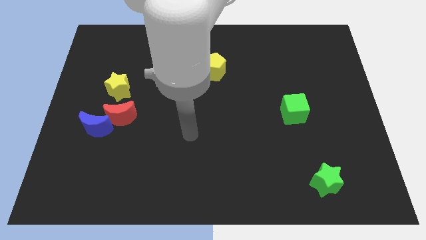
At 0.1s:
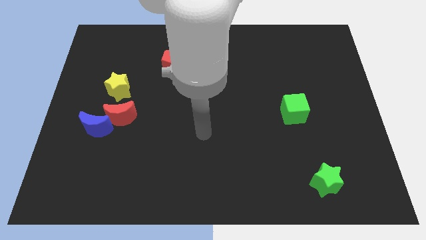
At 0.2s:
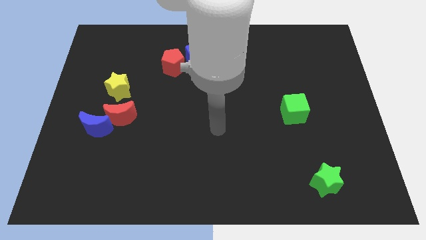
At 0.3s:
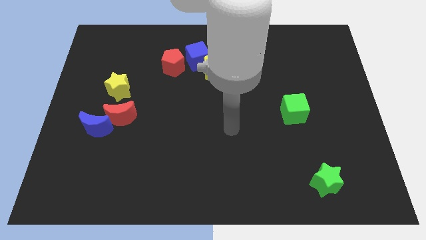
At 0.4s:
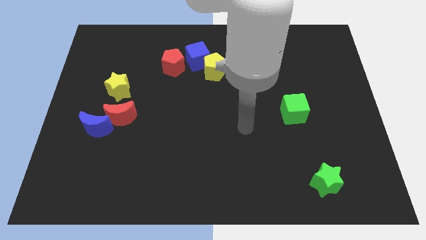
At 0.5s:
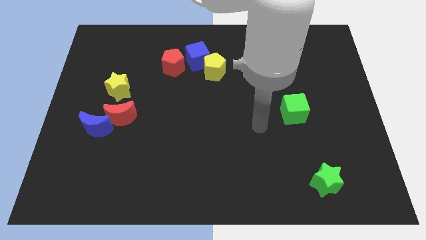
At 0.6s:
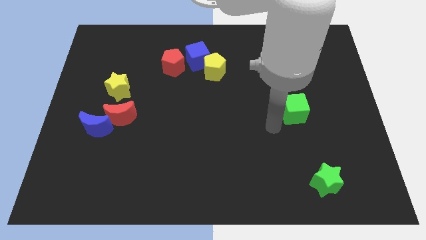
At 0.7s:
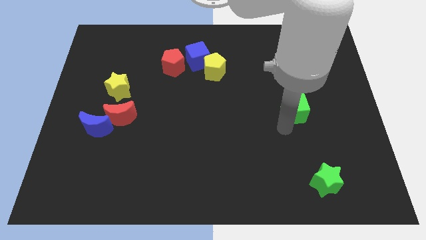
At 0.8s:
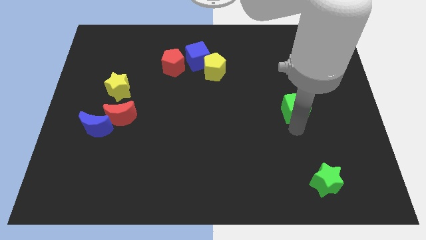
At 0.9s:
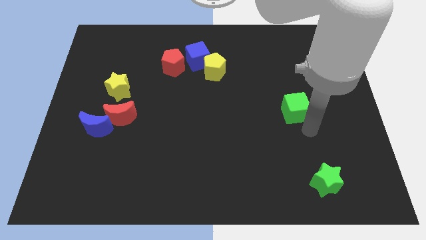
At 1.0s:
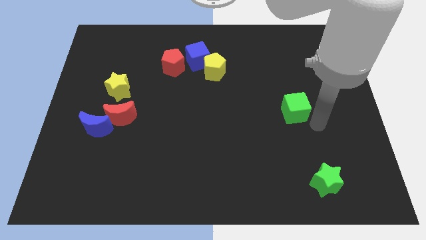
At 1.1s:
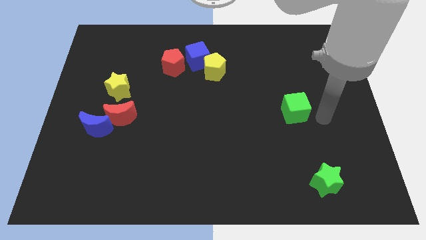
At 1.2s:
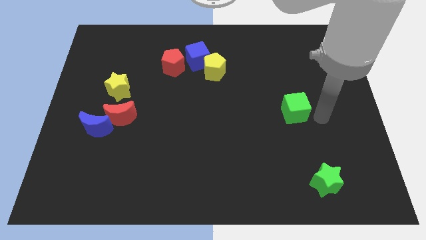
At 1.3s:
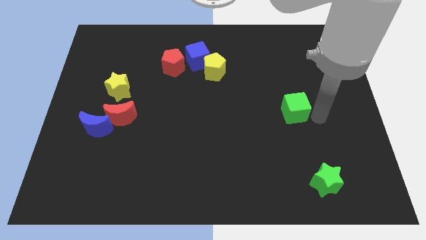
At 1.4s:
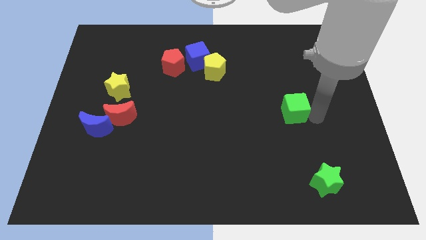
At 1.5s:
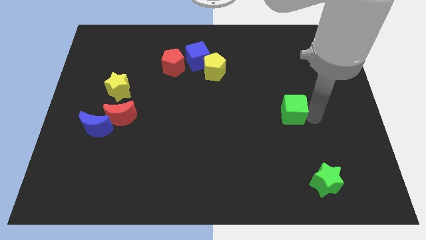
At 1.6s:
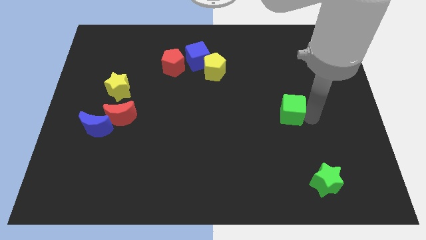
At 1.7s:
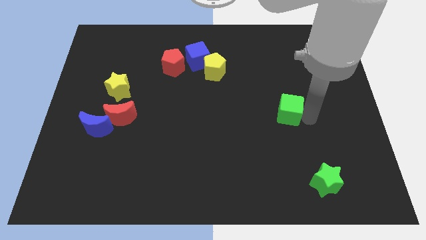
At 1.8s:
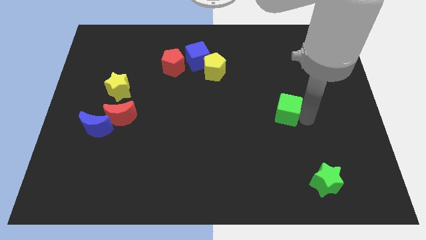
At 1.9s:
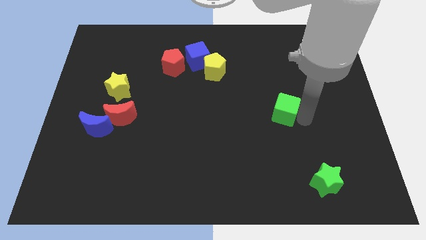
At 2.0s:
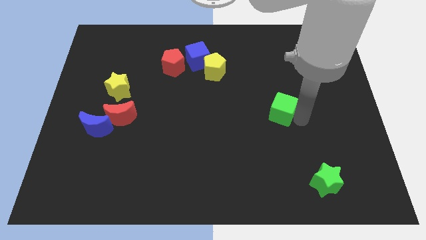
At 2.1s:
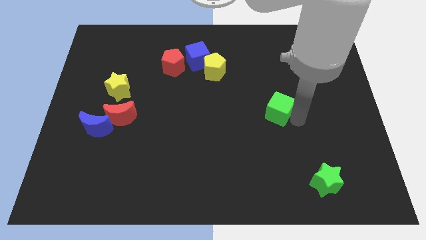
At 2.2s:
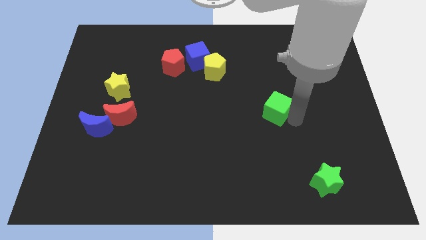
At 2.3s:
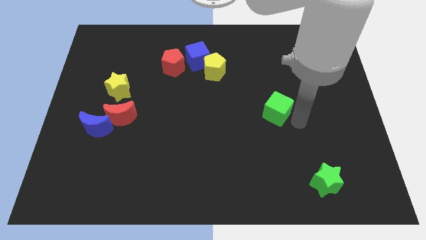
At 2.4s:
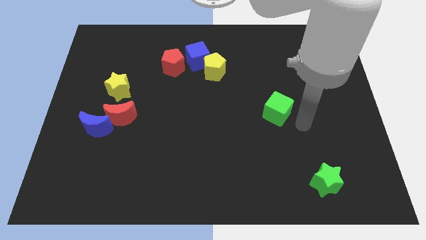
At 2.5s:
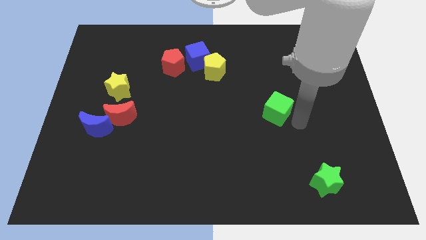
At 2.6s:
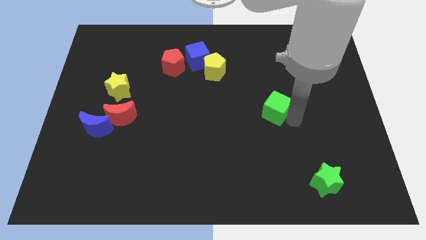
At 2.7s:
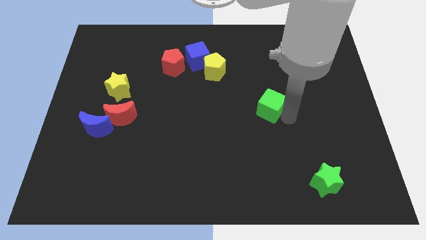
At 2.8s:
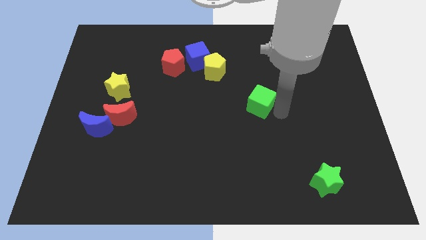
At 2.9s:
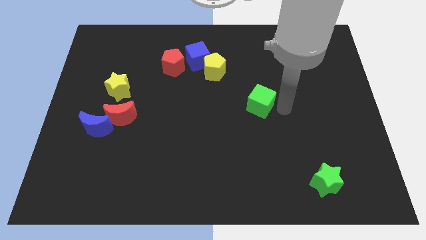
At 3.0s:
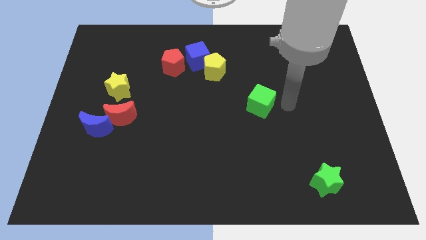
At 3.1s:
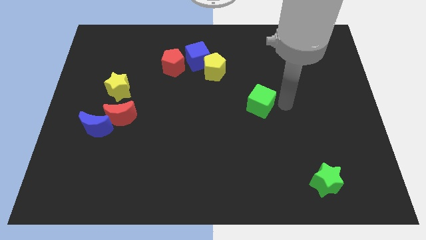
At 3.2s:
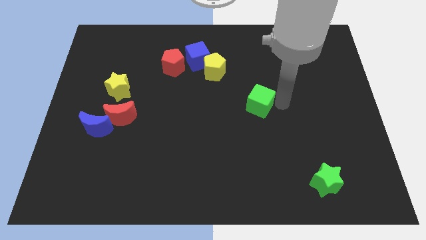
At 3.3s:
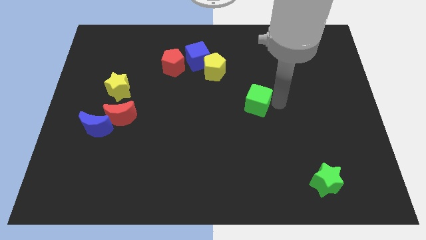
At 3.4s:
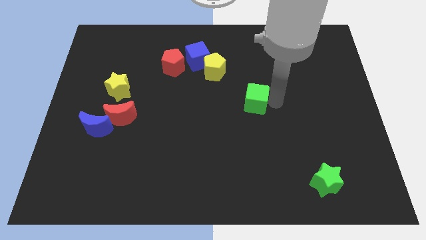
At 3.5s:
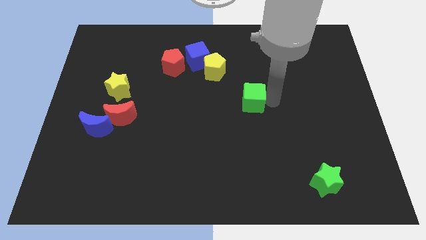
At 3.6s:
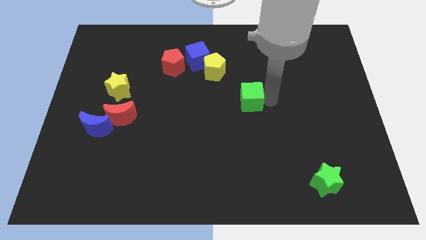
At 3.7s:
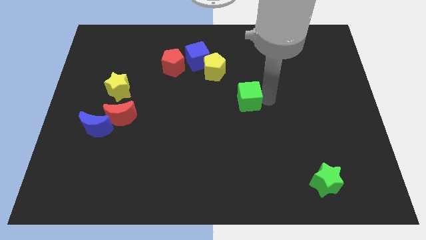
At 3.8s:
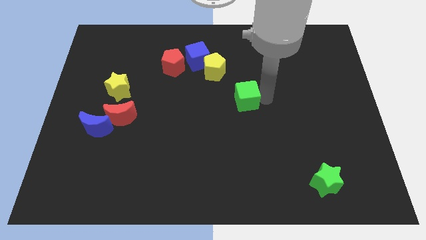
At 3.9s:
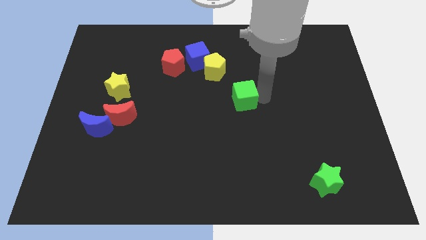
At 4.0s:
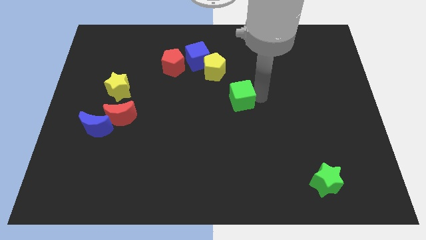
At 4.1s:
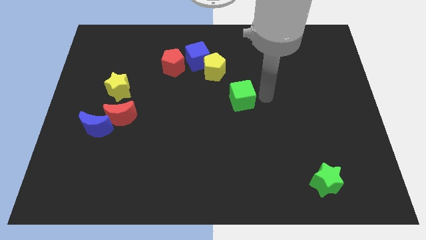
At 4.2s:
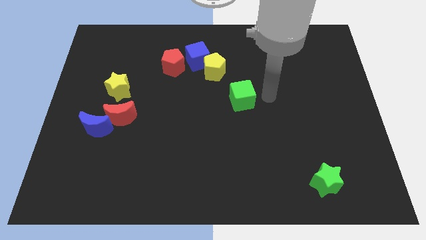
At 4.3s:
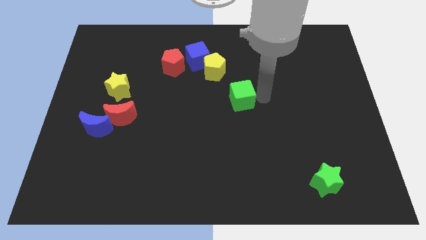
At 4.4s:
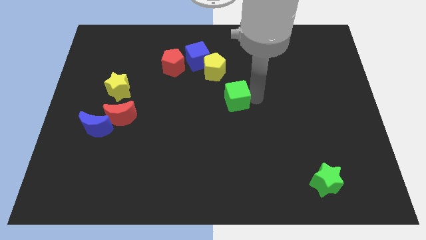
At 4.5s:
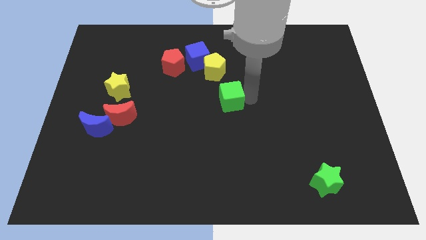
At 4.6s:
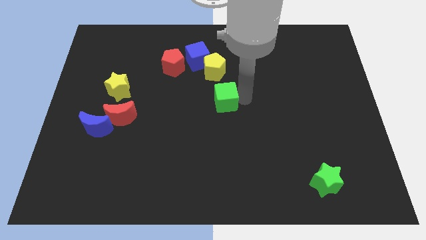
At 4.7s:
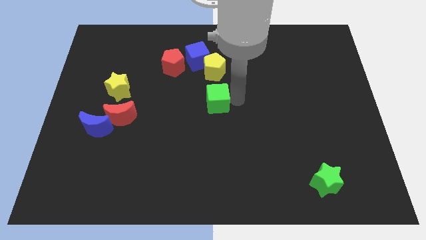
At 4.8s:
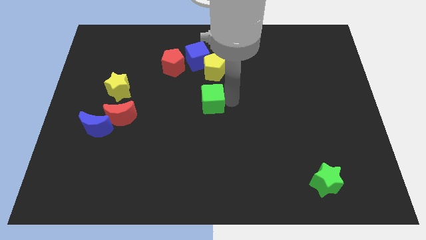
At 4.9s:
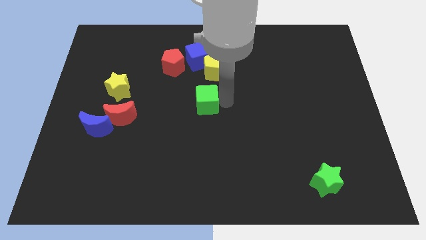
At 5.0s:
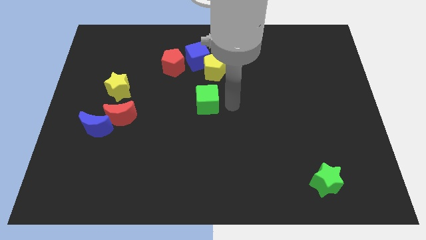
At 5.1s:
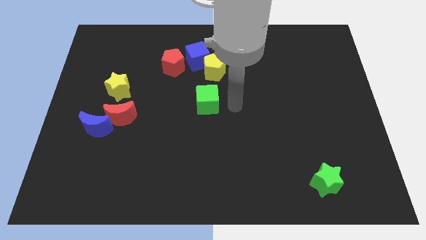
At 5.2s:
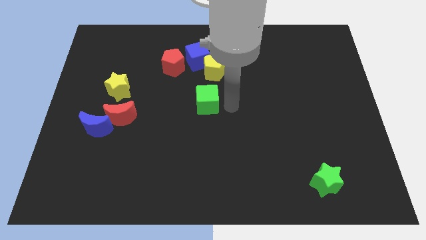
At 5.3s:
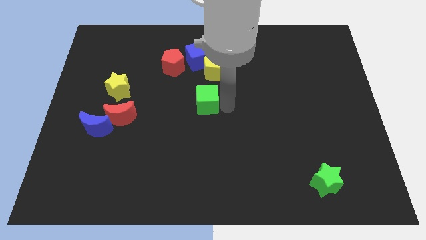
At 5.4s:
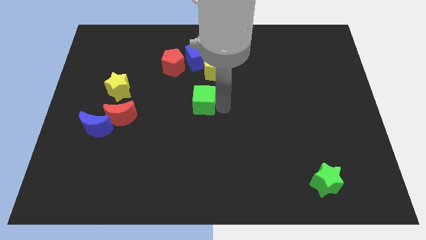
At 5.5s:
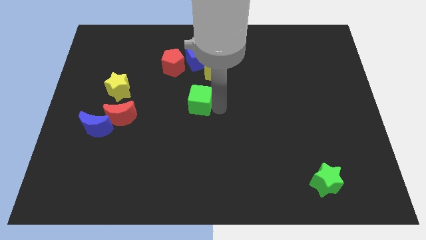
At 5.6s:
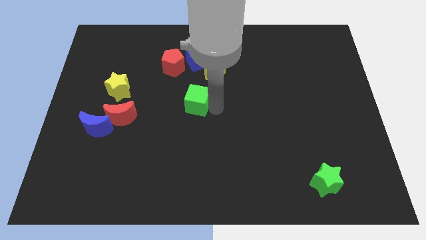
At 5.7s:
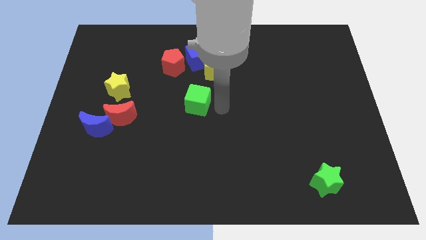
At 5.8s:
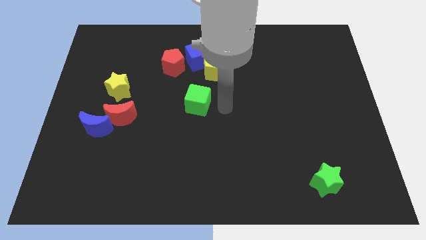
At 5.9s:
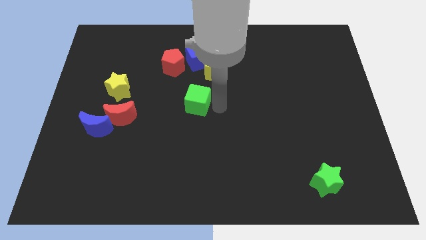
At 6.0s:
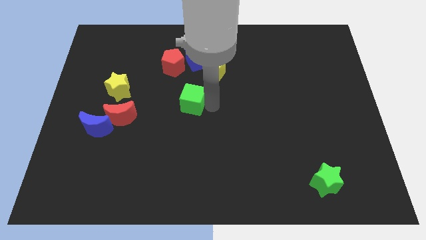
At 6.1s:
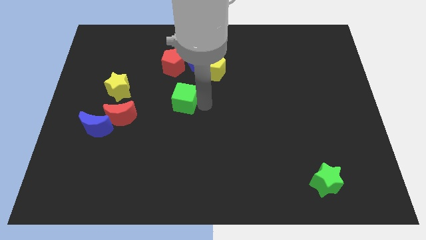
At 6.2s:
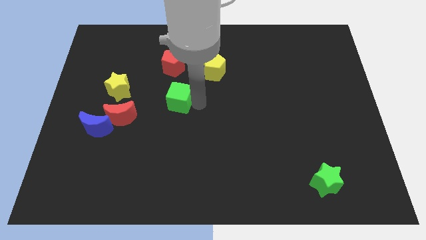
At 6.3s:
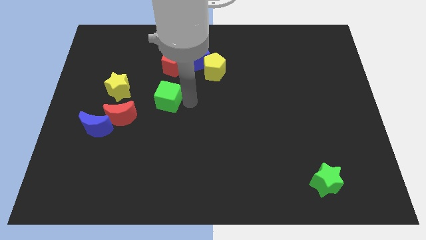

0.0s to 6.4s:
put the green cube diagonally up and to the right of the red moon

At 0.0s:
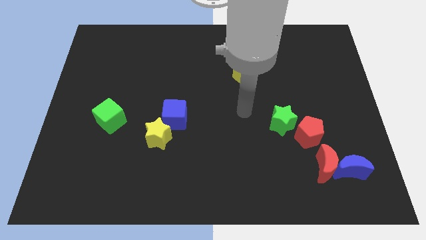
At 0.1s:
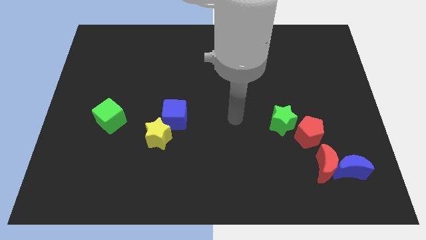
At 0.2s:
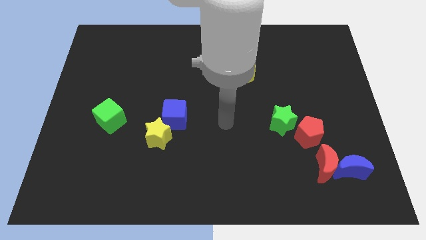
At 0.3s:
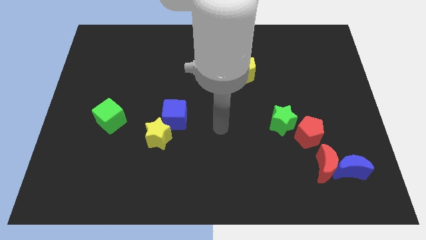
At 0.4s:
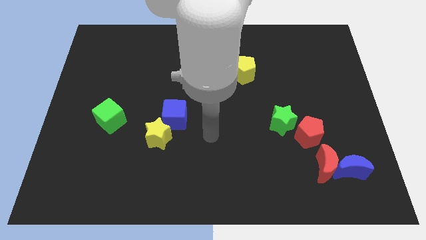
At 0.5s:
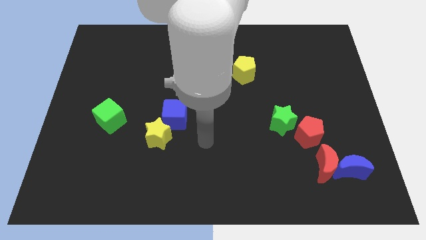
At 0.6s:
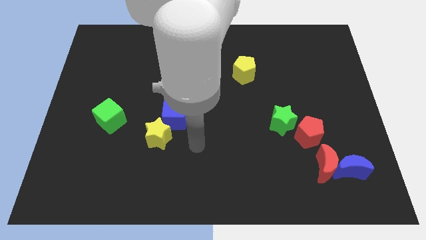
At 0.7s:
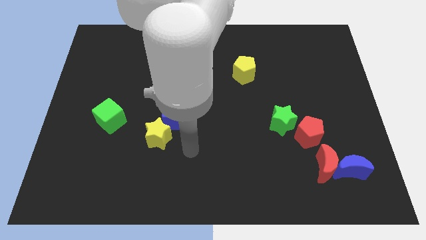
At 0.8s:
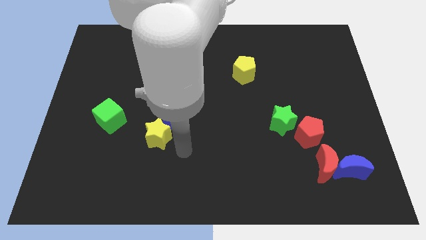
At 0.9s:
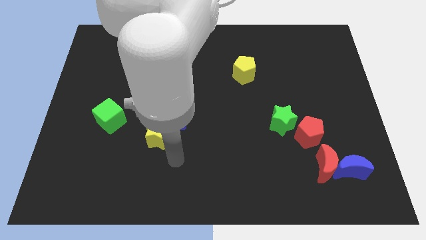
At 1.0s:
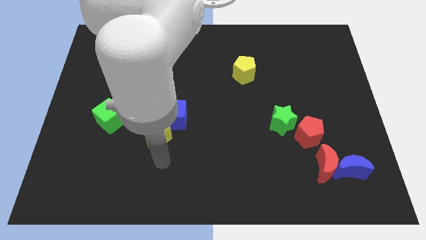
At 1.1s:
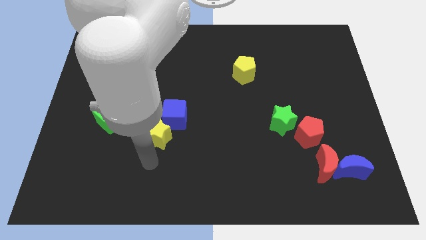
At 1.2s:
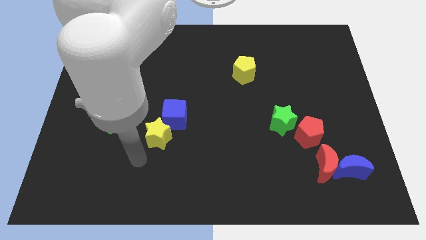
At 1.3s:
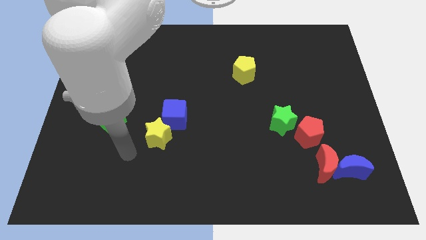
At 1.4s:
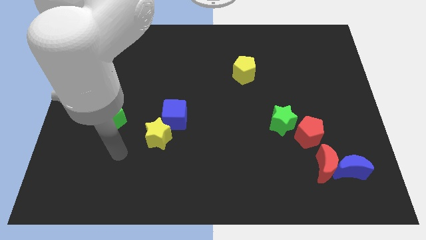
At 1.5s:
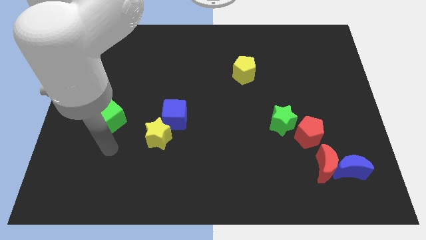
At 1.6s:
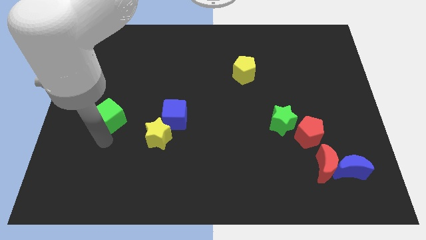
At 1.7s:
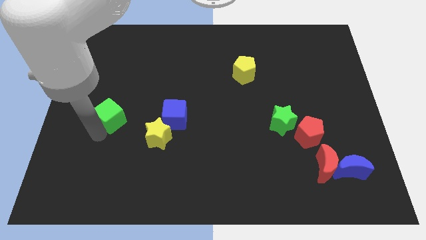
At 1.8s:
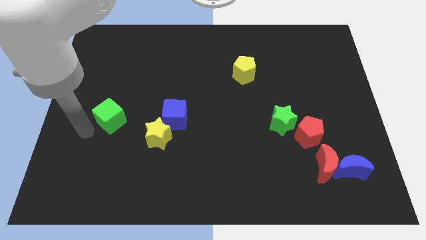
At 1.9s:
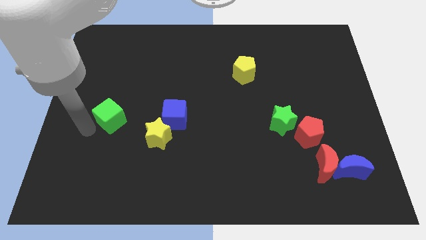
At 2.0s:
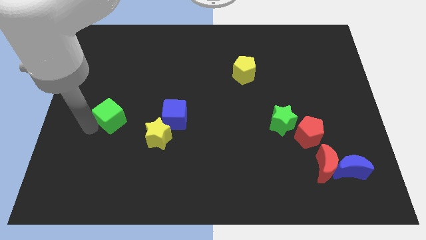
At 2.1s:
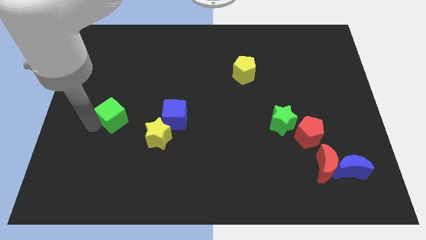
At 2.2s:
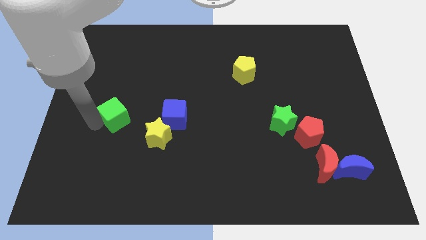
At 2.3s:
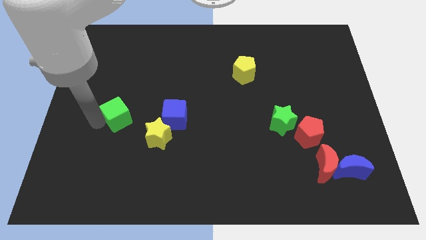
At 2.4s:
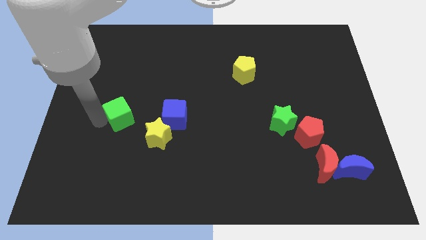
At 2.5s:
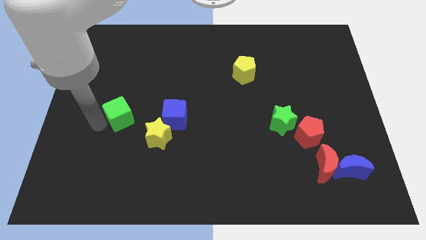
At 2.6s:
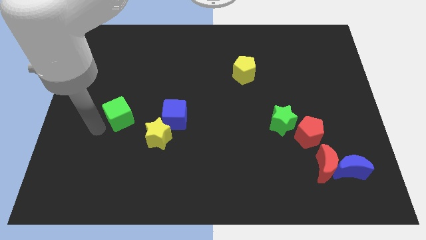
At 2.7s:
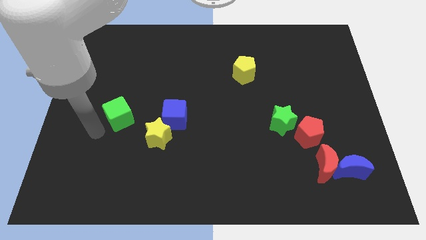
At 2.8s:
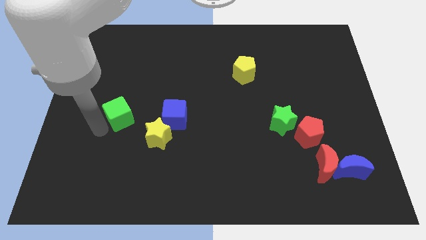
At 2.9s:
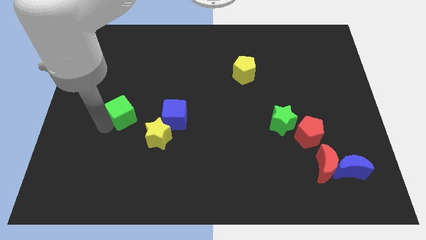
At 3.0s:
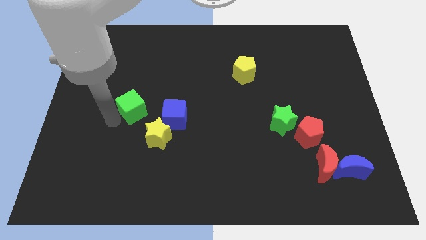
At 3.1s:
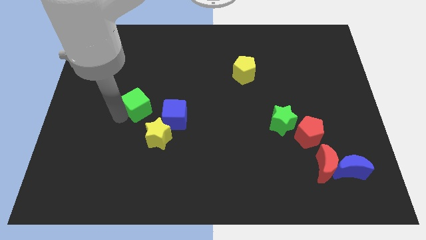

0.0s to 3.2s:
move the green cube to the top left side of the blue cube
